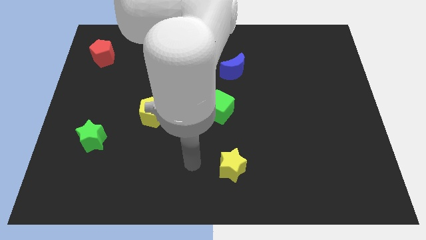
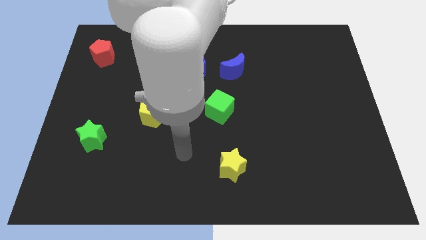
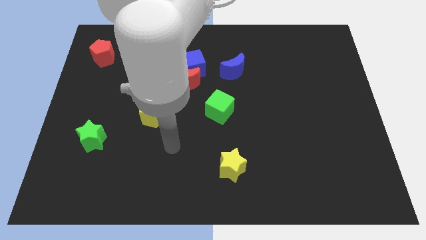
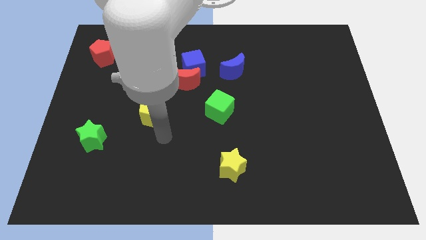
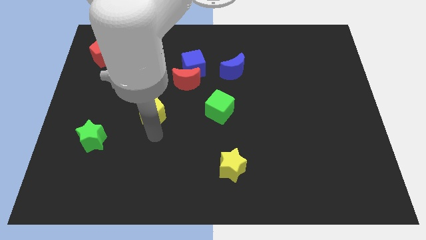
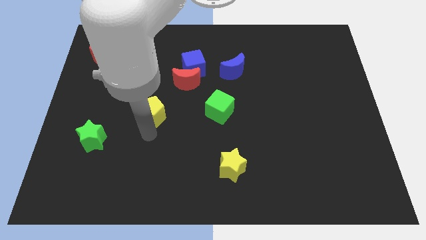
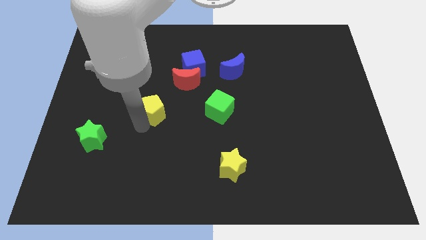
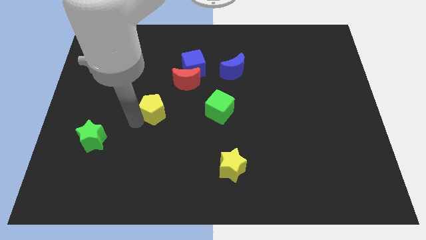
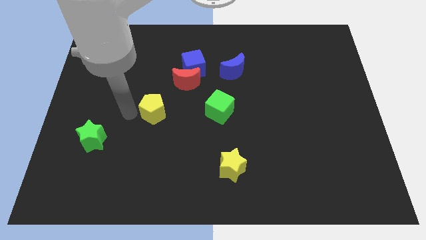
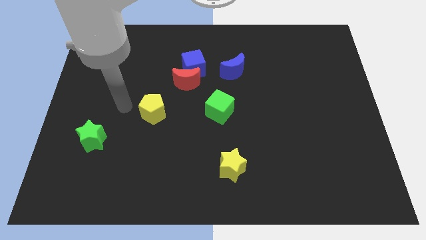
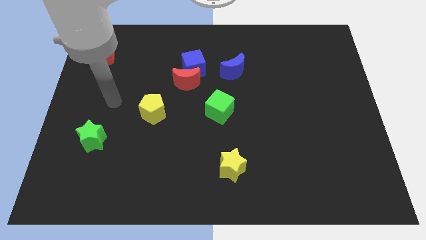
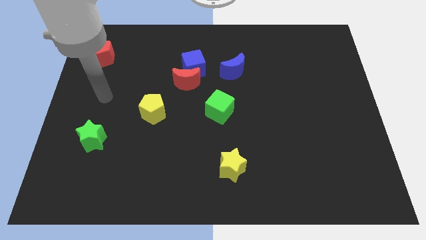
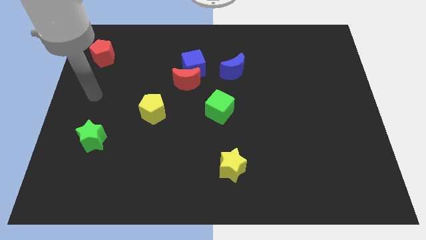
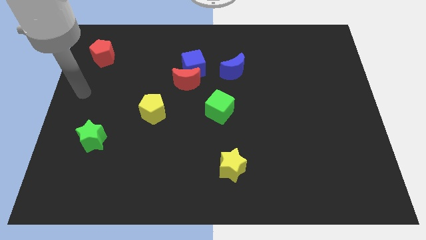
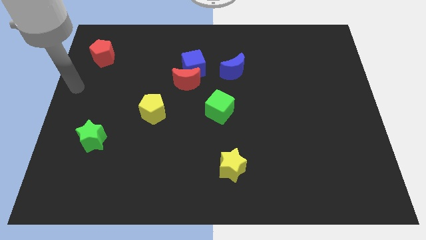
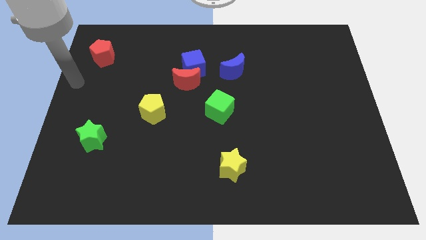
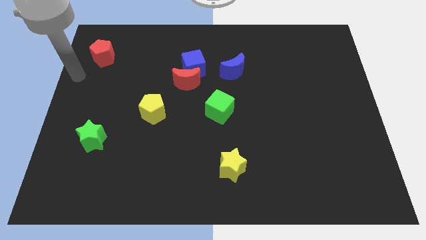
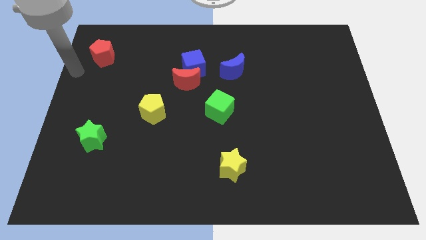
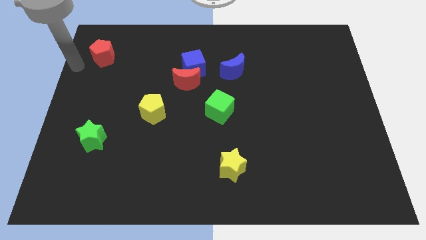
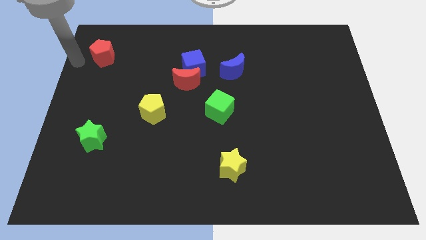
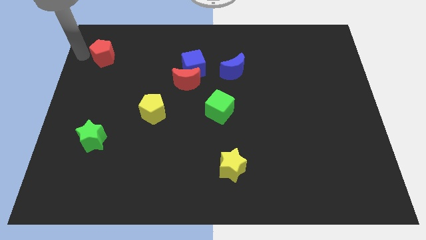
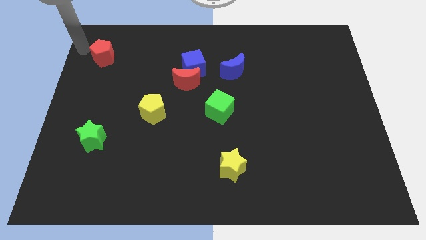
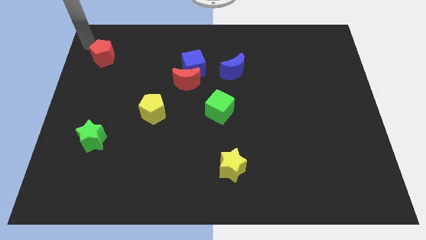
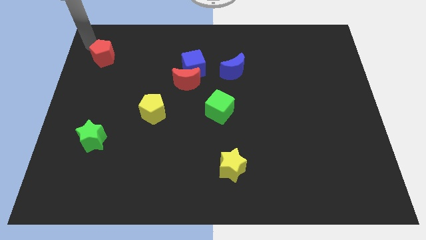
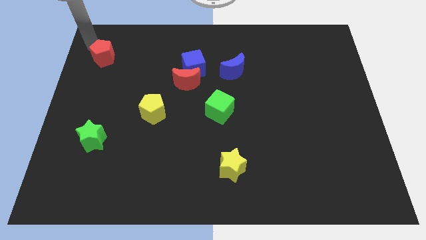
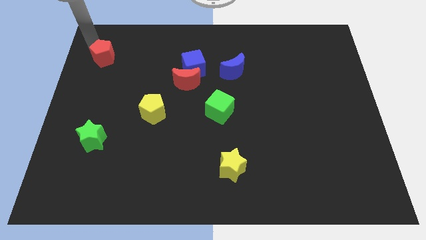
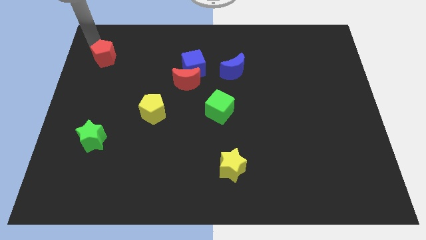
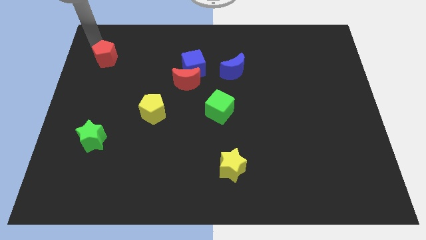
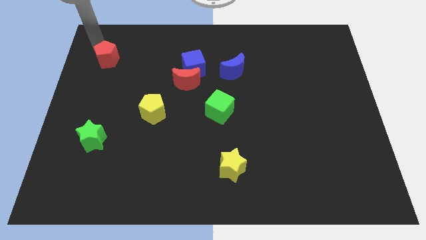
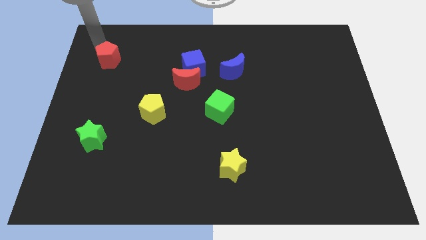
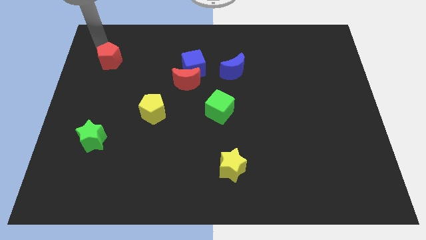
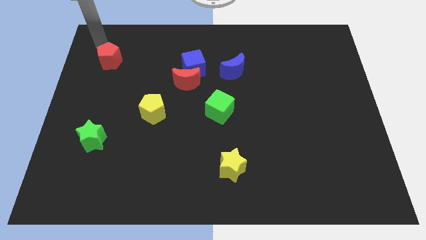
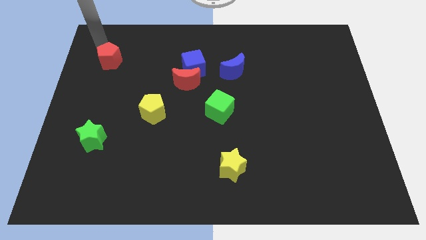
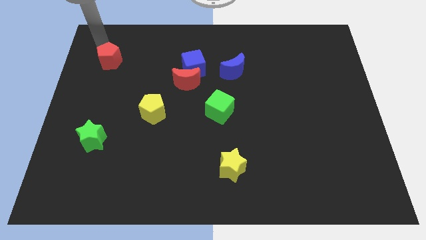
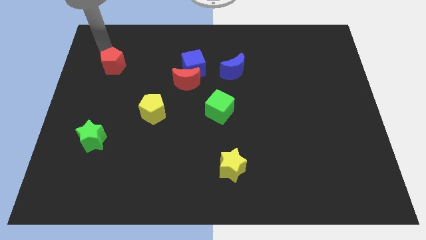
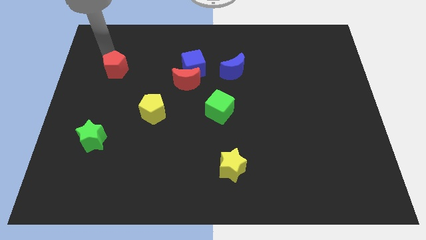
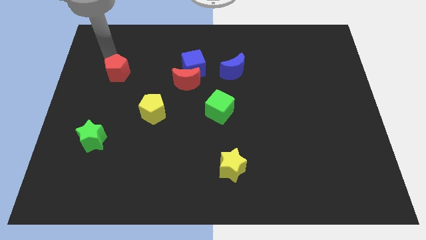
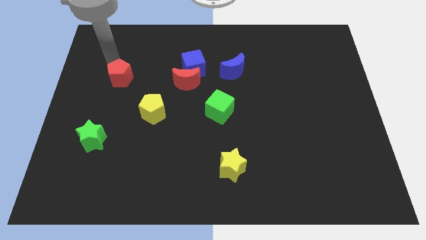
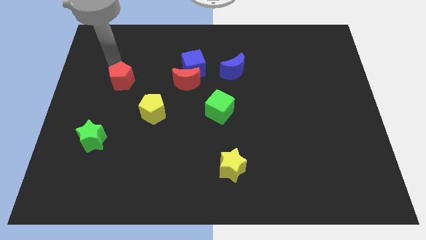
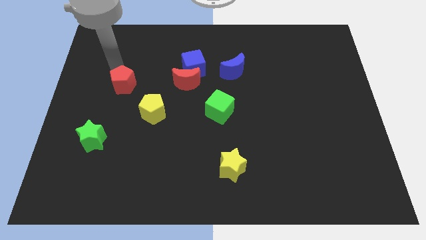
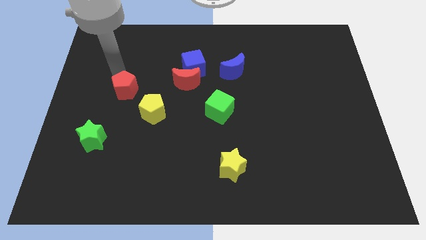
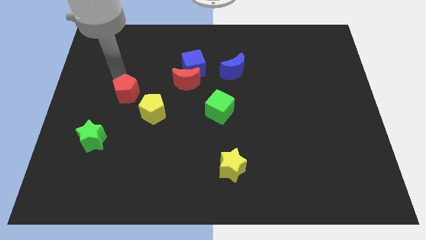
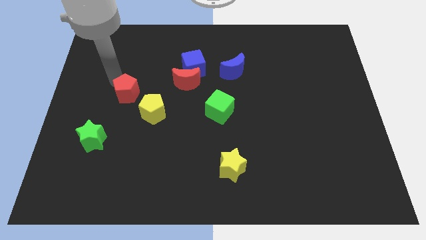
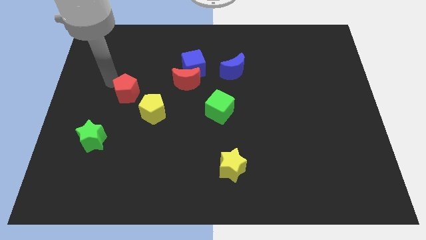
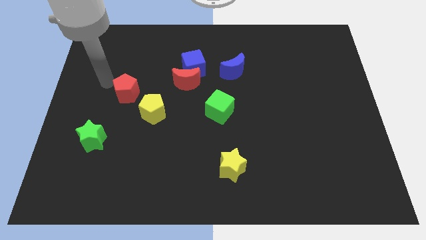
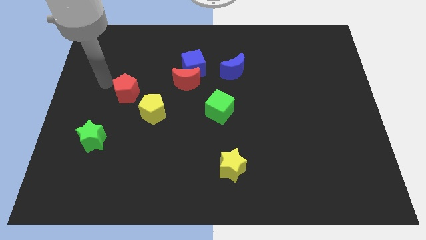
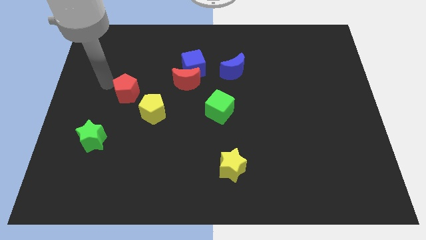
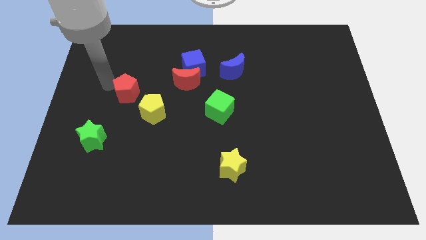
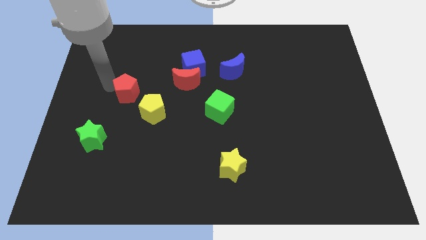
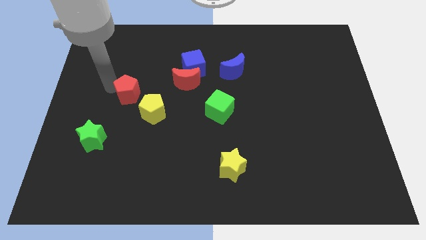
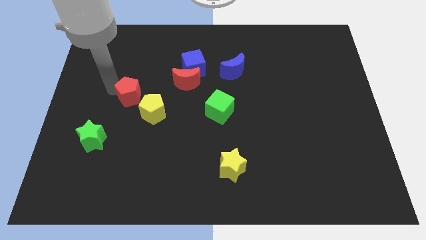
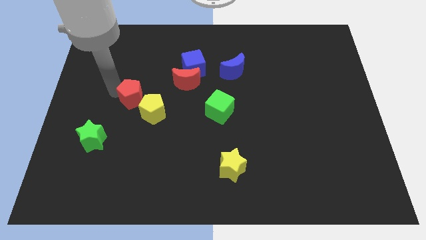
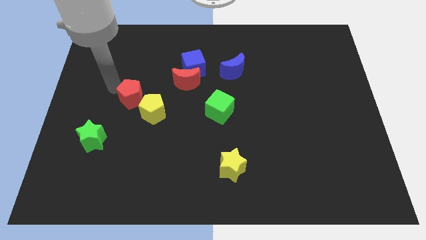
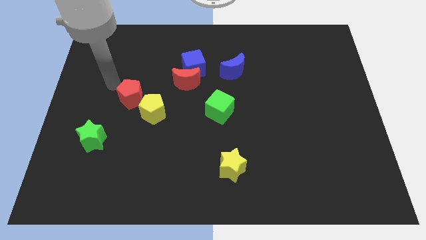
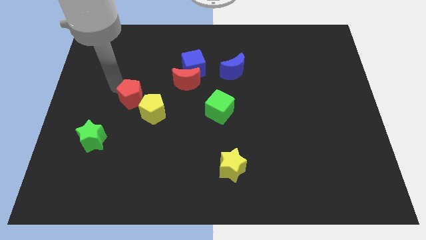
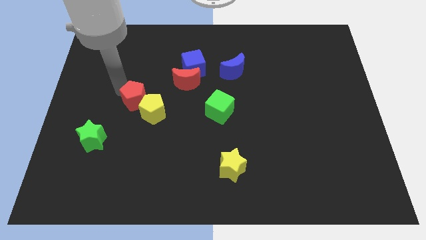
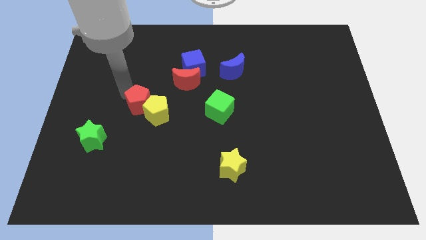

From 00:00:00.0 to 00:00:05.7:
move the red pentagon next to the yellow pentagon

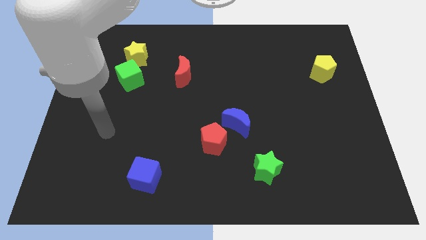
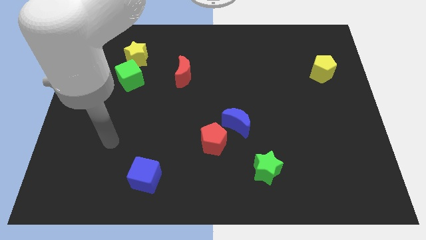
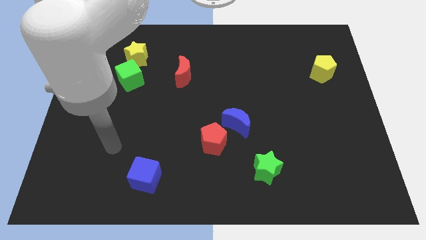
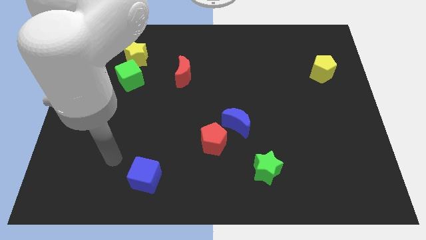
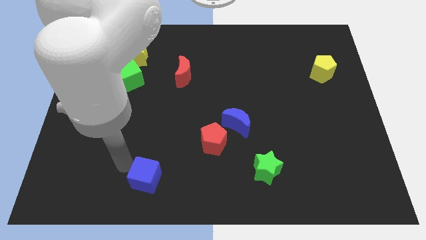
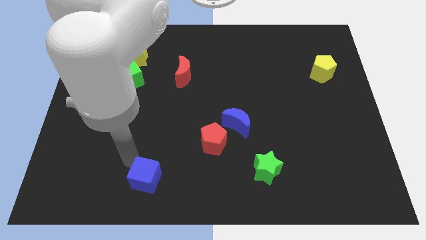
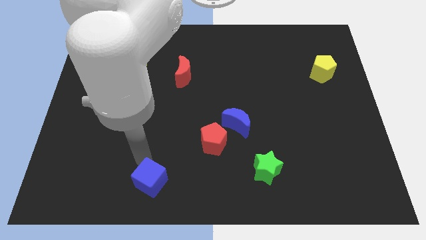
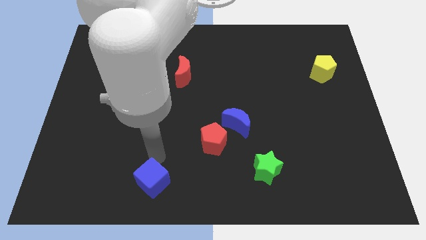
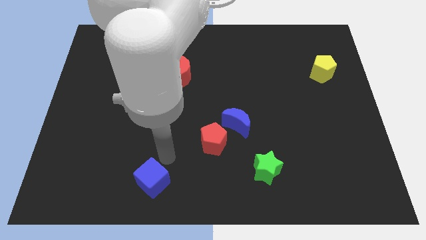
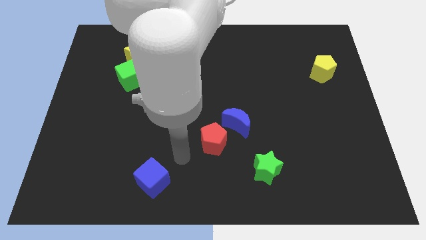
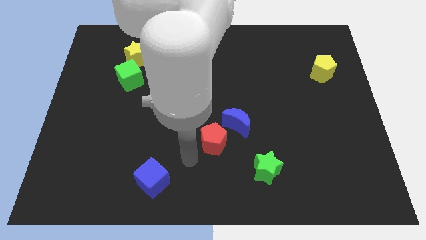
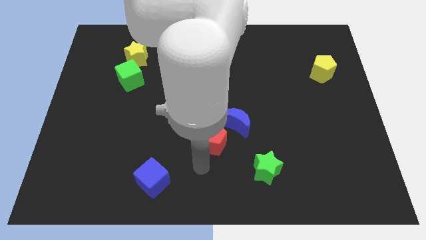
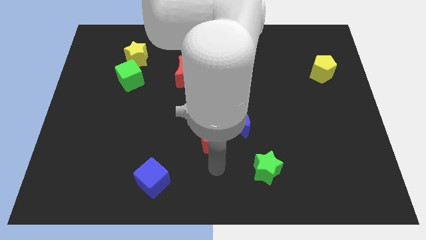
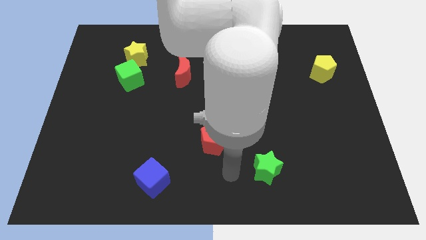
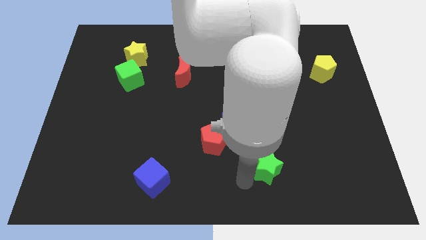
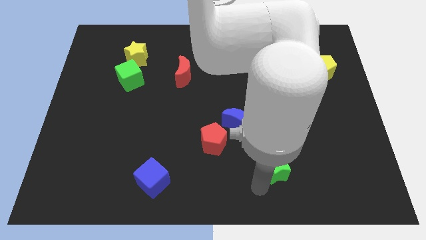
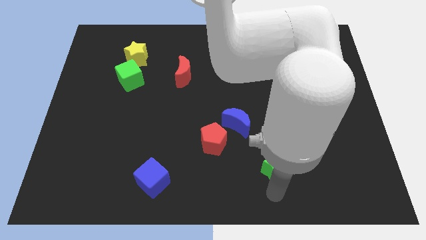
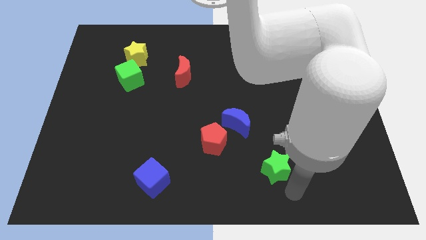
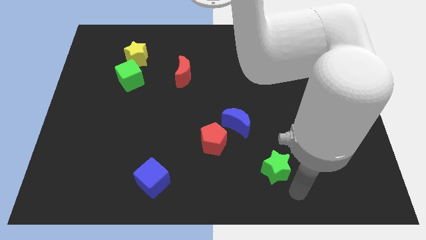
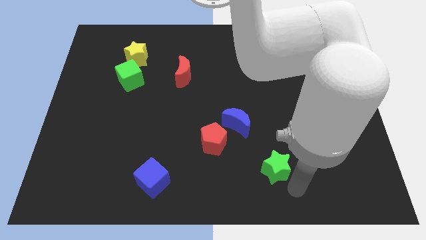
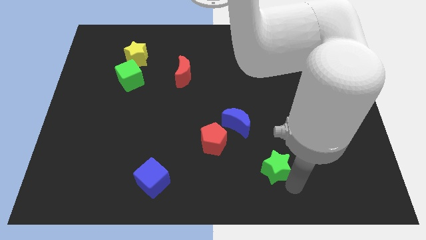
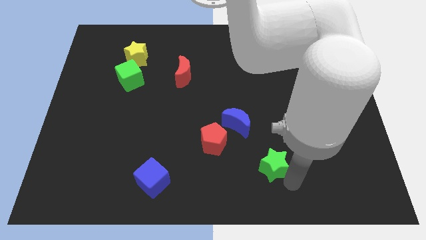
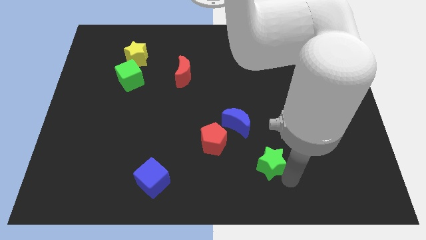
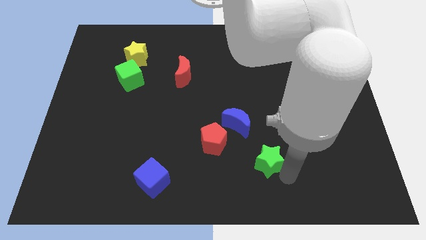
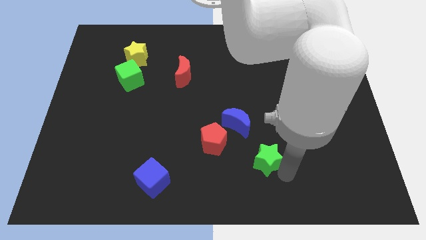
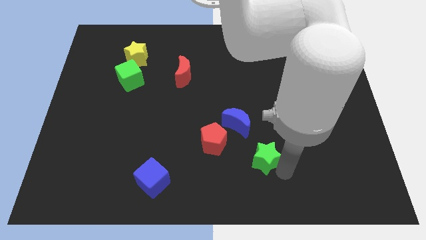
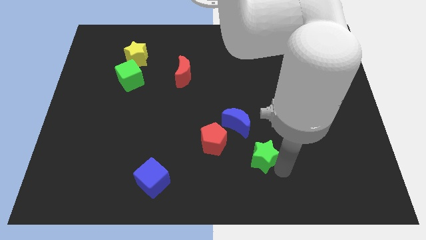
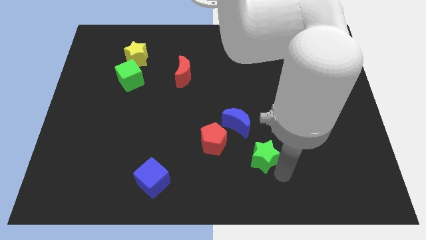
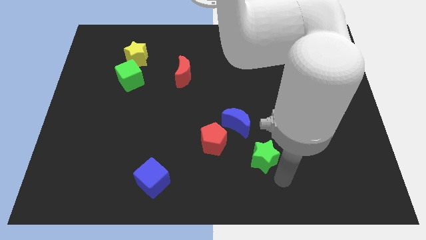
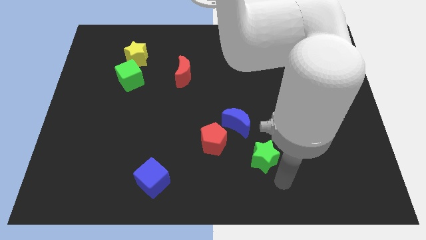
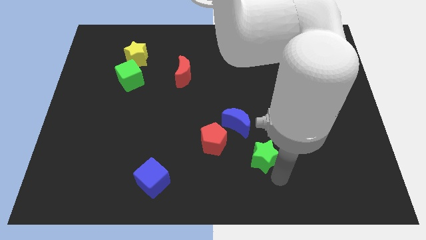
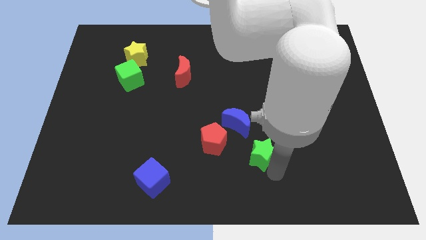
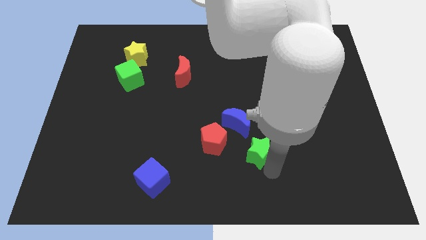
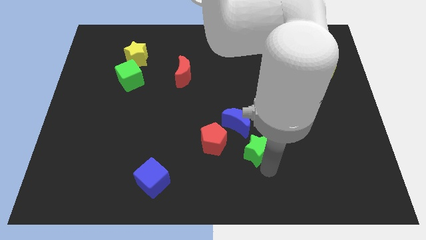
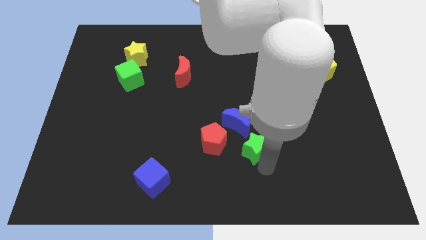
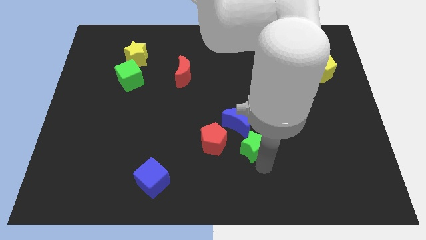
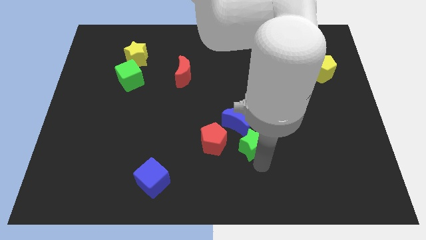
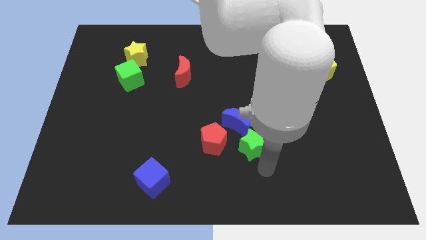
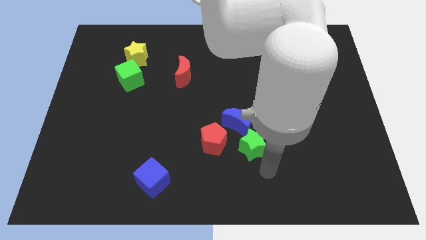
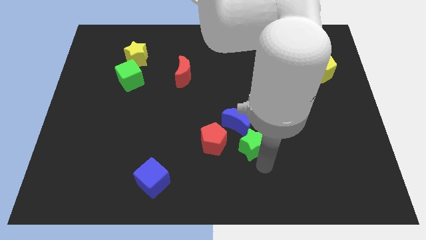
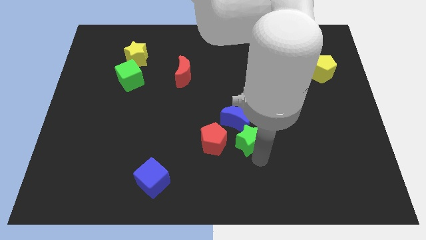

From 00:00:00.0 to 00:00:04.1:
push the green star towards the blue moon
